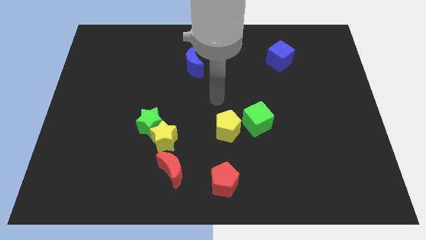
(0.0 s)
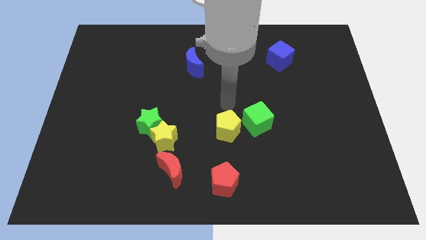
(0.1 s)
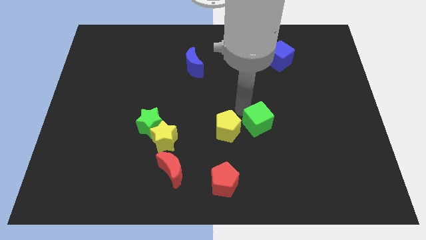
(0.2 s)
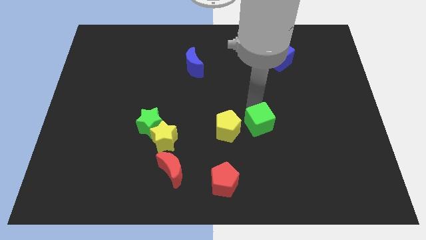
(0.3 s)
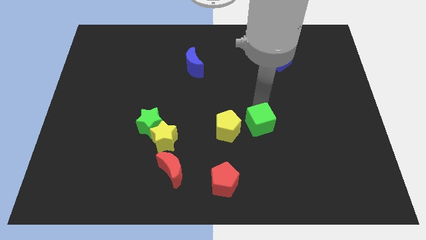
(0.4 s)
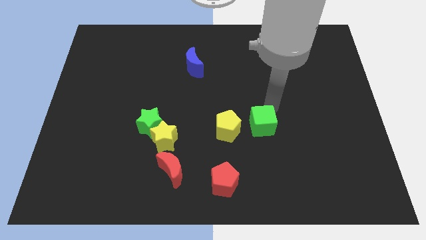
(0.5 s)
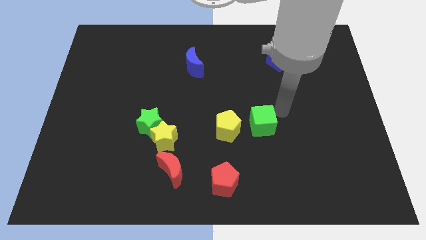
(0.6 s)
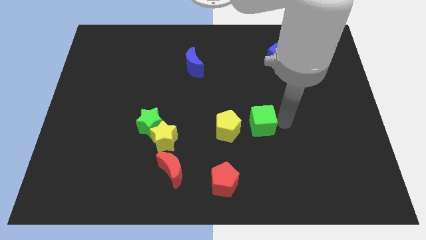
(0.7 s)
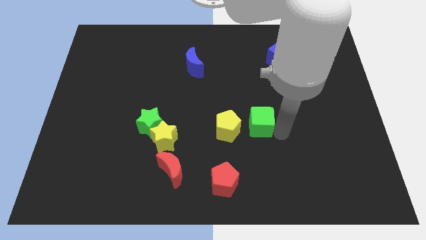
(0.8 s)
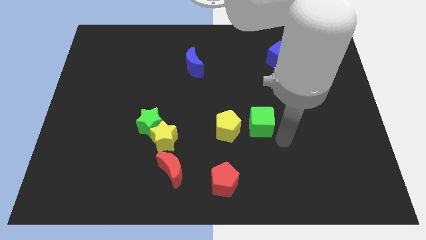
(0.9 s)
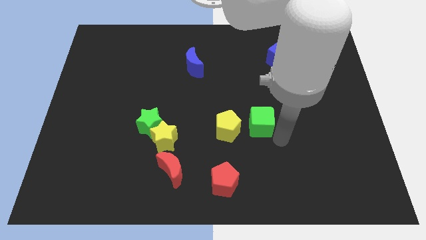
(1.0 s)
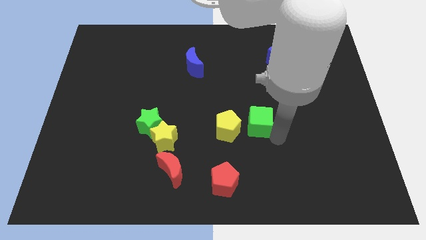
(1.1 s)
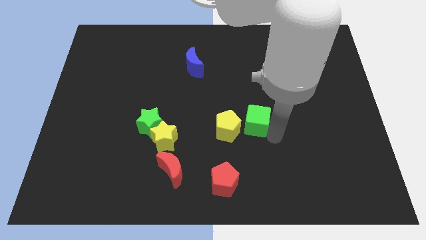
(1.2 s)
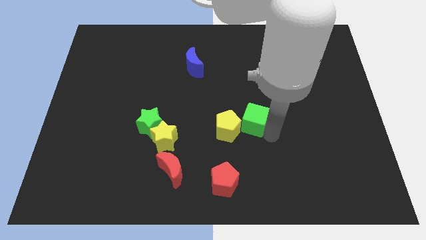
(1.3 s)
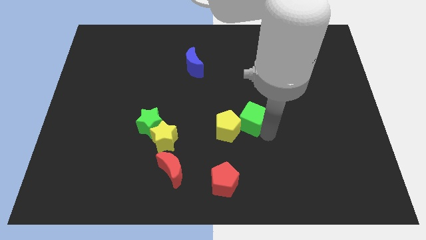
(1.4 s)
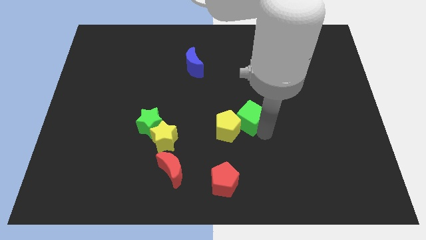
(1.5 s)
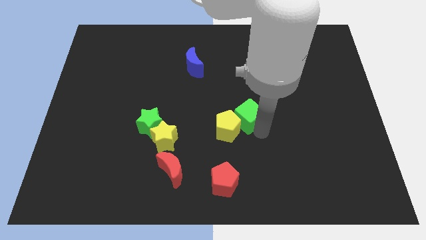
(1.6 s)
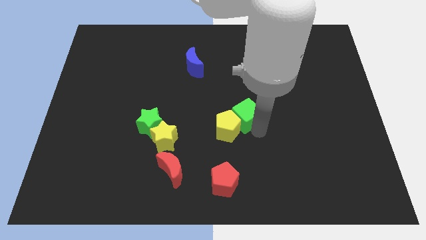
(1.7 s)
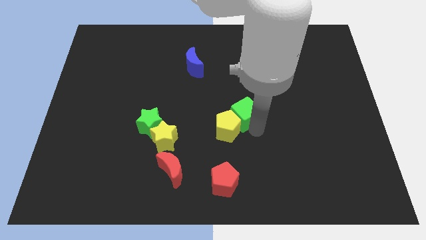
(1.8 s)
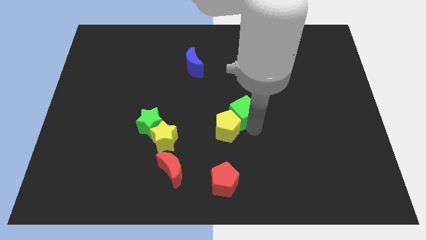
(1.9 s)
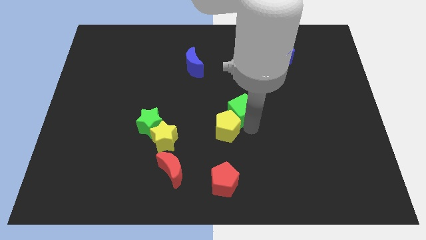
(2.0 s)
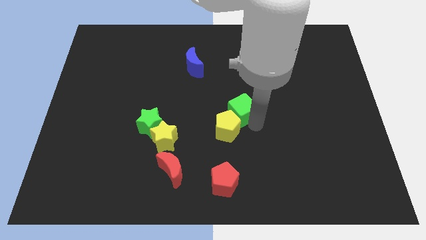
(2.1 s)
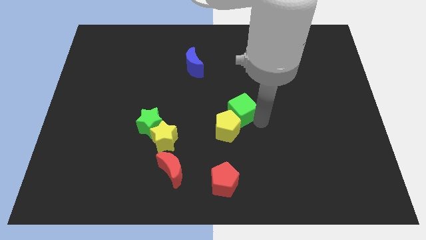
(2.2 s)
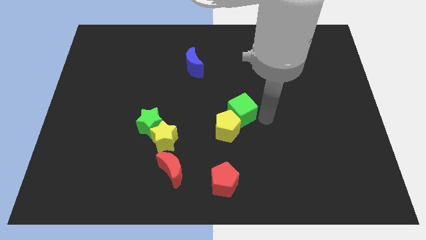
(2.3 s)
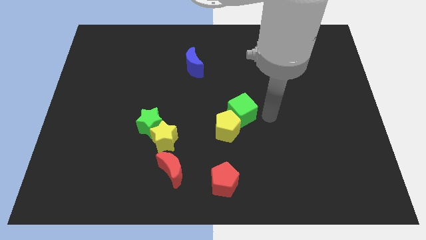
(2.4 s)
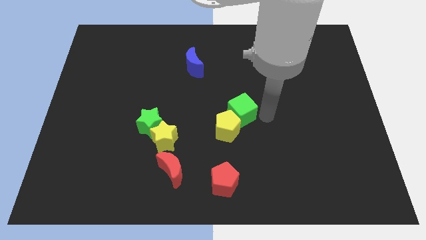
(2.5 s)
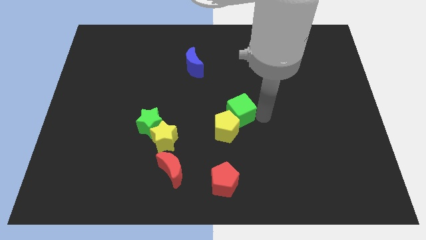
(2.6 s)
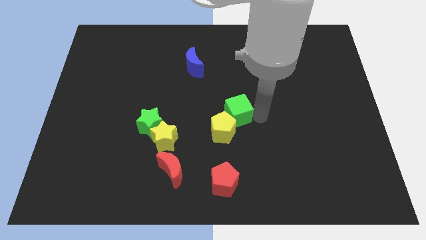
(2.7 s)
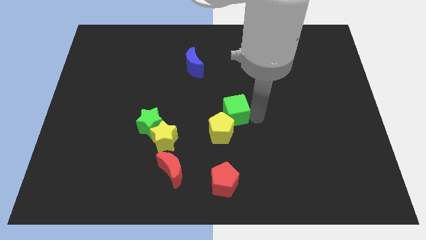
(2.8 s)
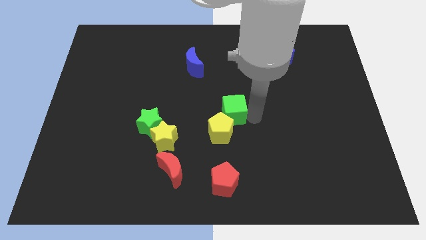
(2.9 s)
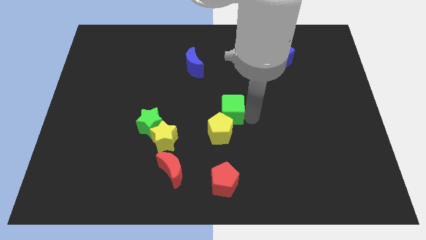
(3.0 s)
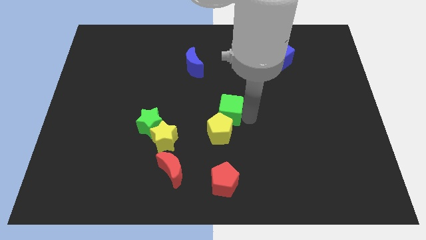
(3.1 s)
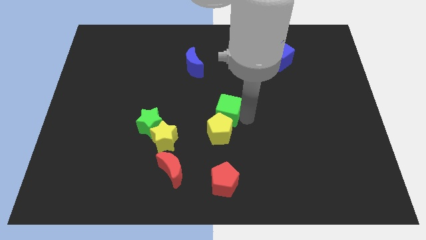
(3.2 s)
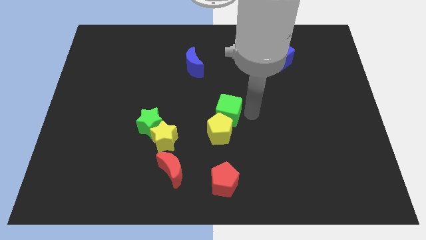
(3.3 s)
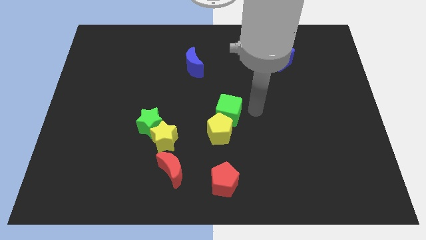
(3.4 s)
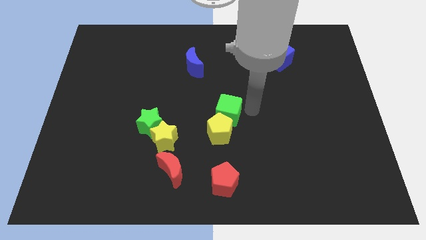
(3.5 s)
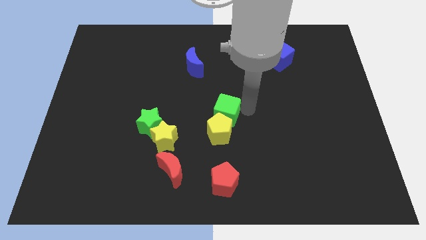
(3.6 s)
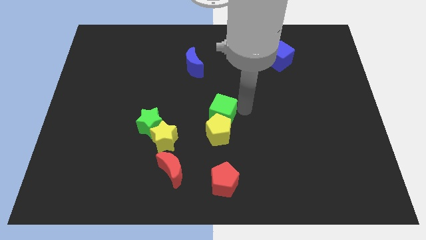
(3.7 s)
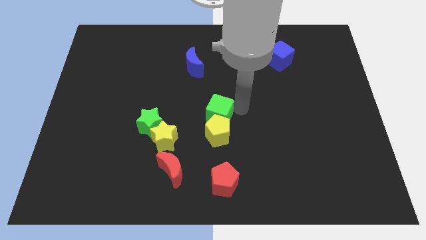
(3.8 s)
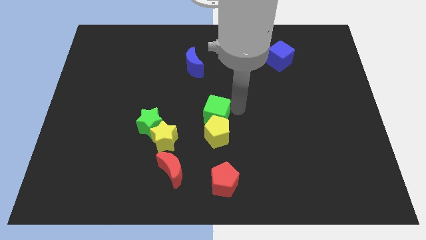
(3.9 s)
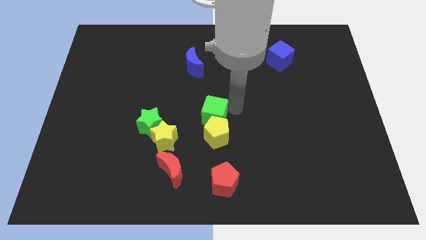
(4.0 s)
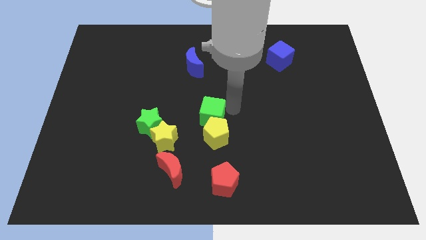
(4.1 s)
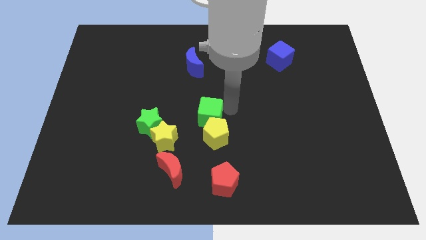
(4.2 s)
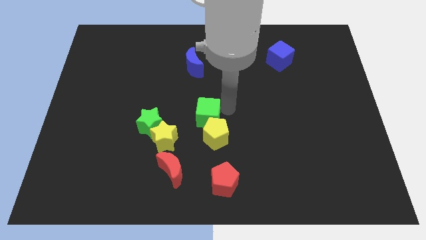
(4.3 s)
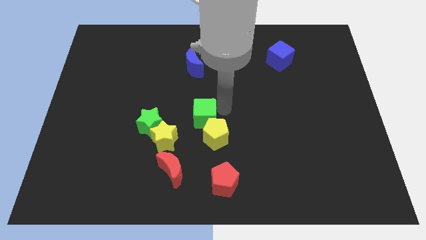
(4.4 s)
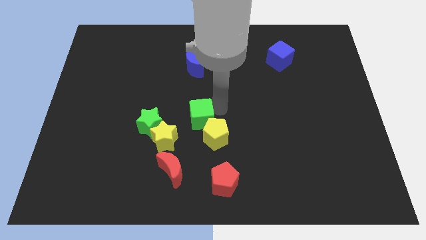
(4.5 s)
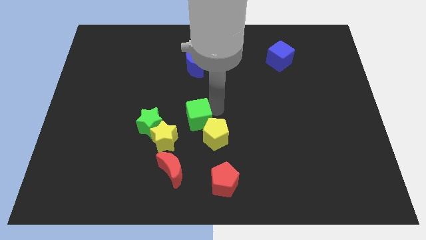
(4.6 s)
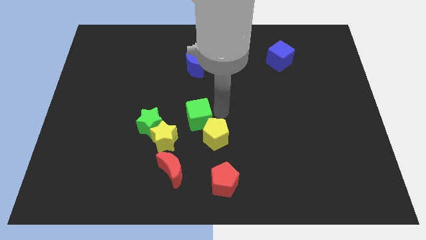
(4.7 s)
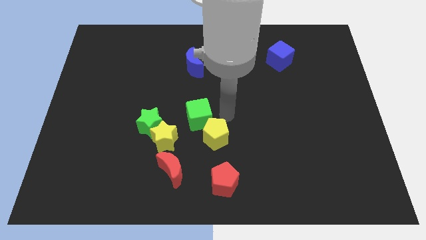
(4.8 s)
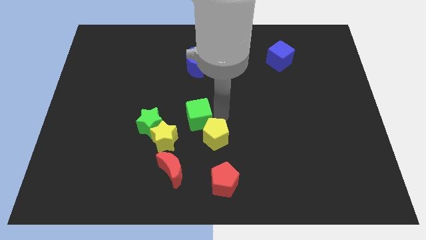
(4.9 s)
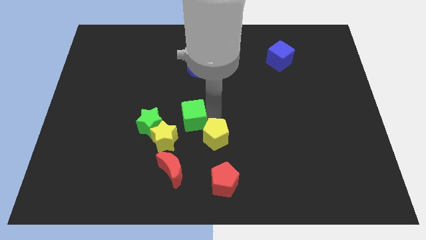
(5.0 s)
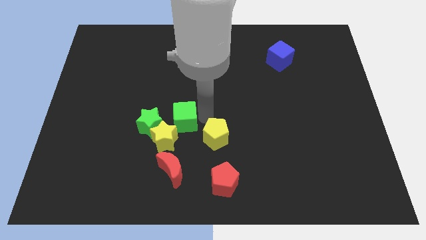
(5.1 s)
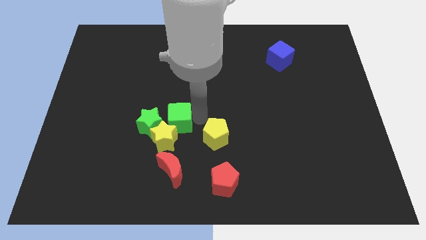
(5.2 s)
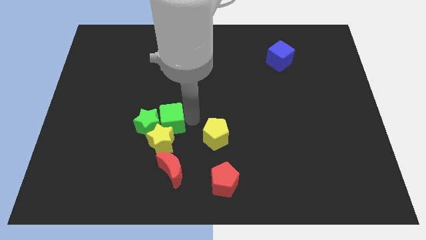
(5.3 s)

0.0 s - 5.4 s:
slide the green cube towards the green star

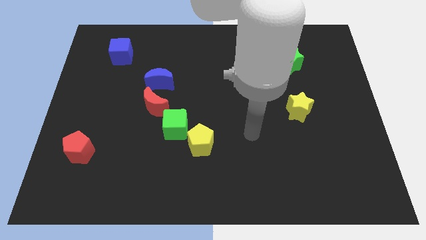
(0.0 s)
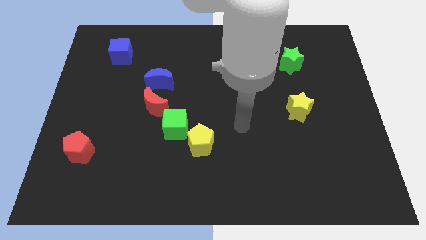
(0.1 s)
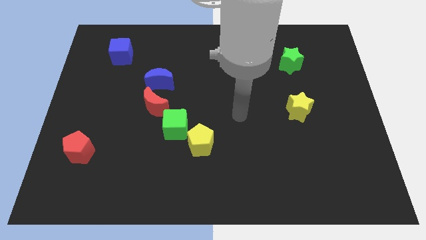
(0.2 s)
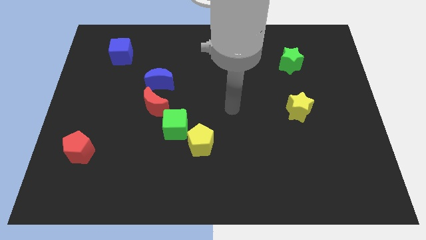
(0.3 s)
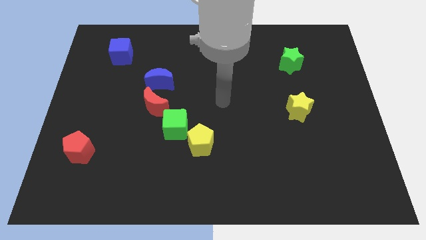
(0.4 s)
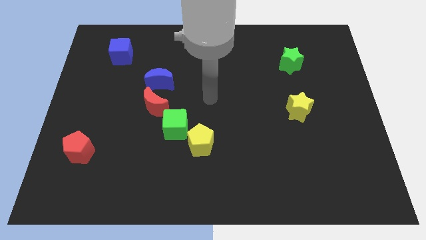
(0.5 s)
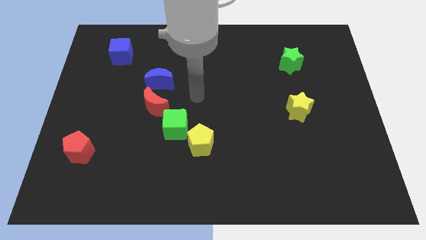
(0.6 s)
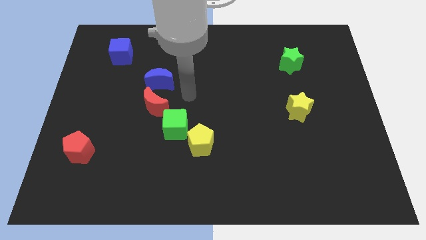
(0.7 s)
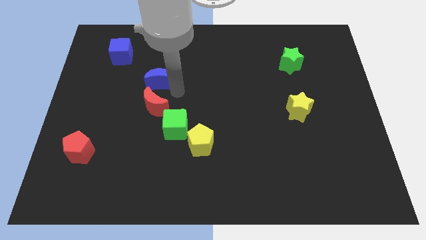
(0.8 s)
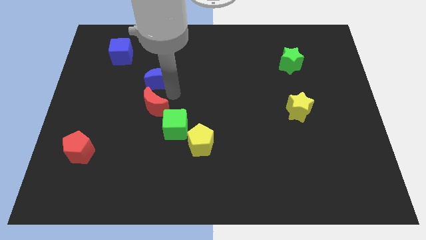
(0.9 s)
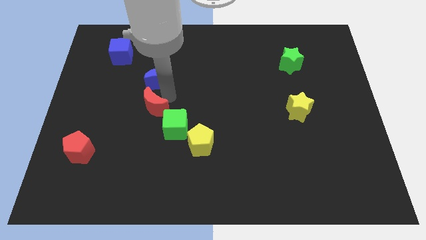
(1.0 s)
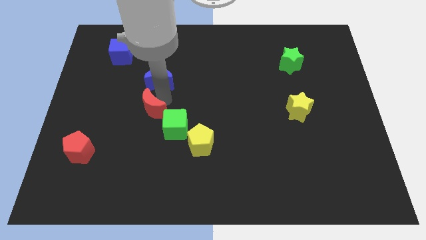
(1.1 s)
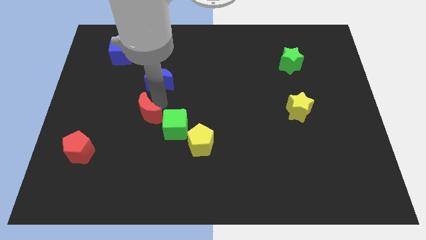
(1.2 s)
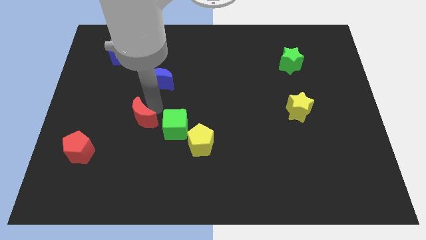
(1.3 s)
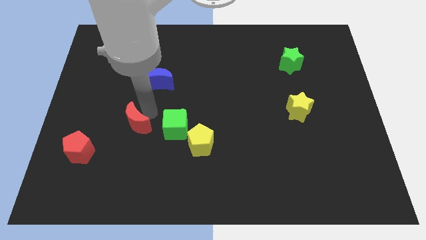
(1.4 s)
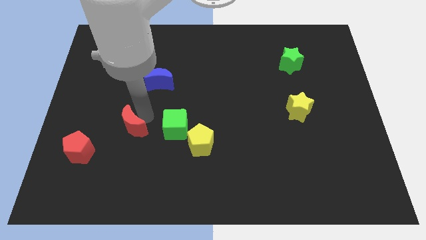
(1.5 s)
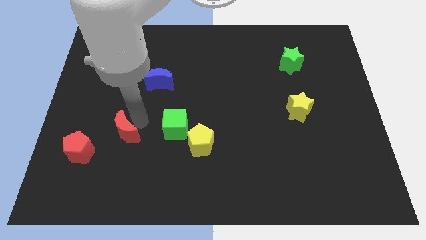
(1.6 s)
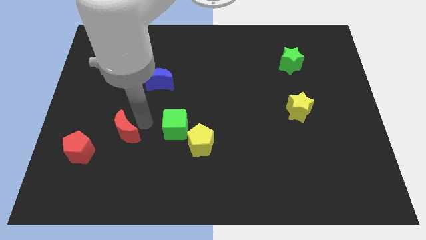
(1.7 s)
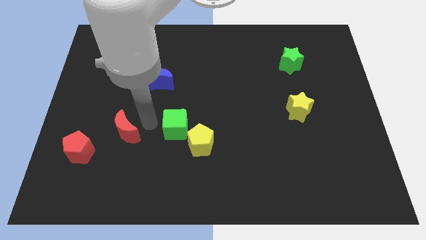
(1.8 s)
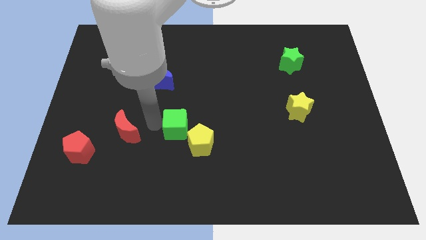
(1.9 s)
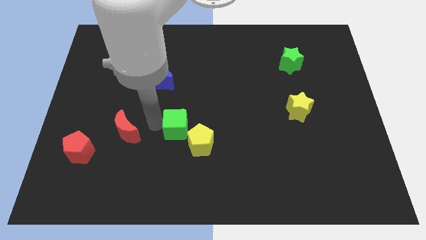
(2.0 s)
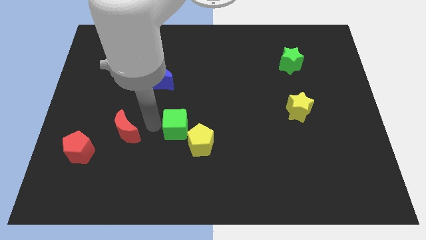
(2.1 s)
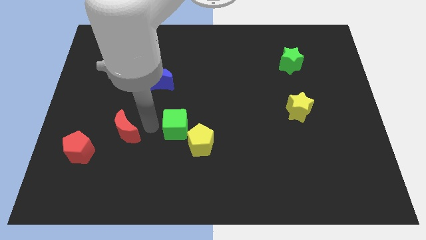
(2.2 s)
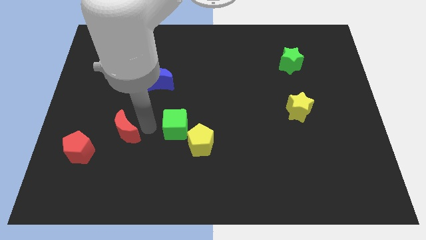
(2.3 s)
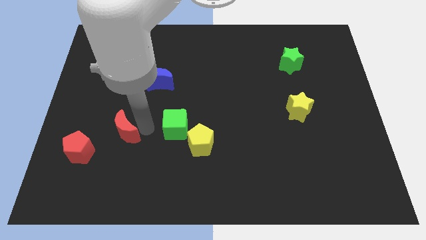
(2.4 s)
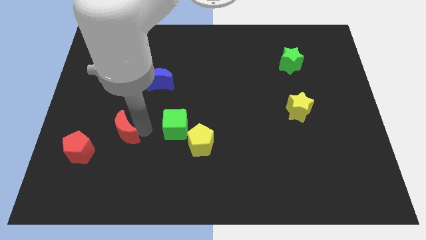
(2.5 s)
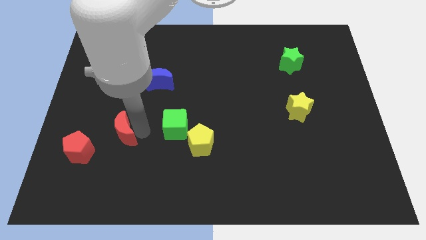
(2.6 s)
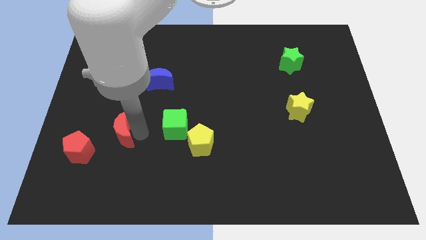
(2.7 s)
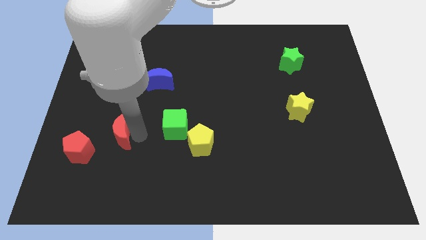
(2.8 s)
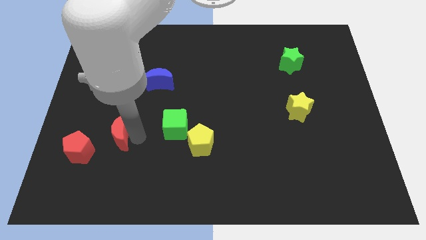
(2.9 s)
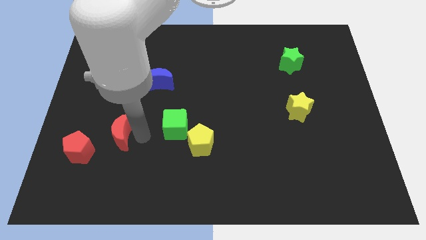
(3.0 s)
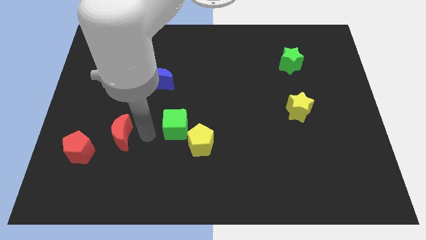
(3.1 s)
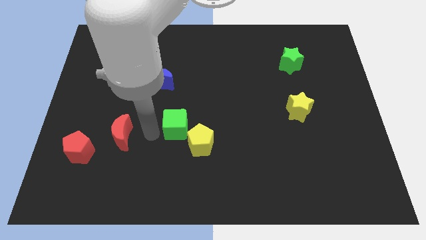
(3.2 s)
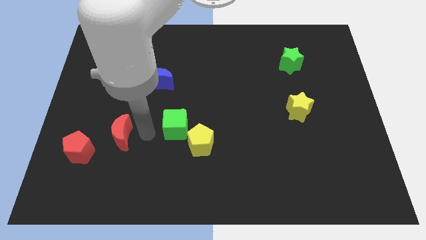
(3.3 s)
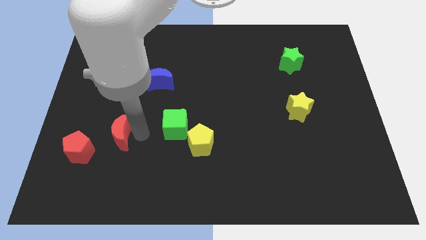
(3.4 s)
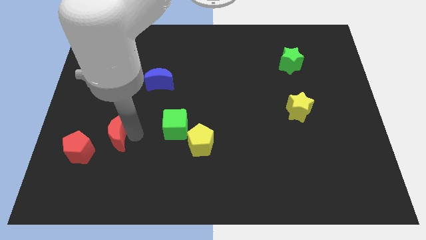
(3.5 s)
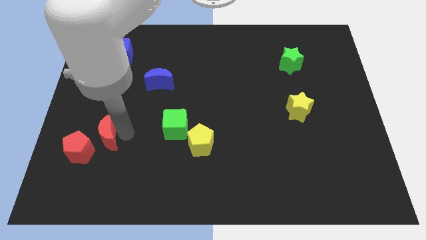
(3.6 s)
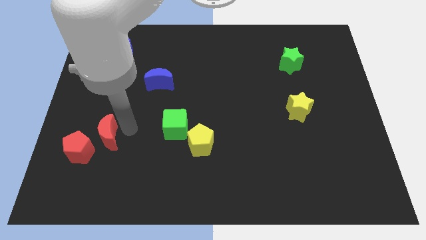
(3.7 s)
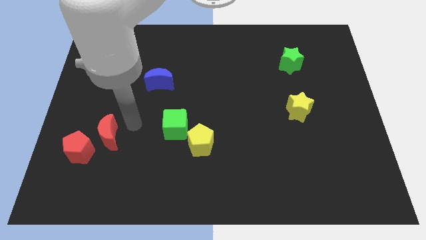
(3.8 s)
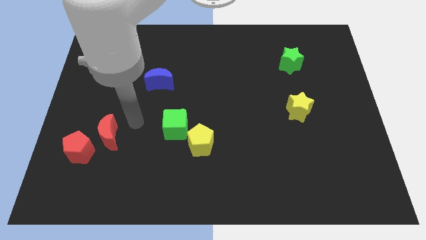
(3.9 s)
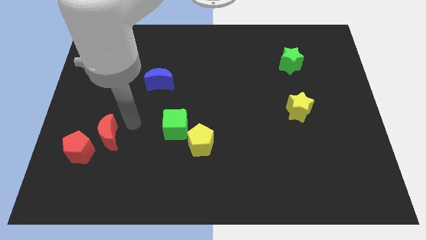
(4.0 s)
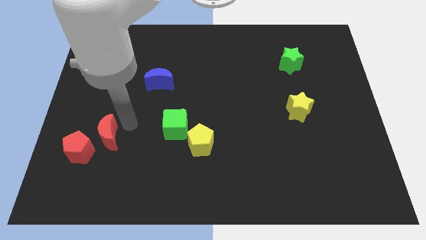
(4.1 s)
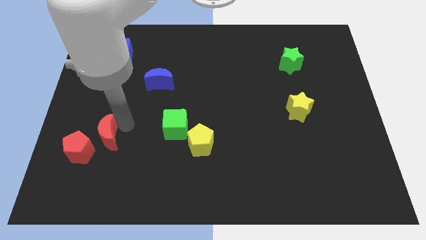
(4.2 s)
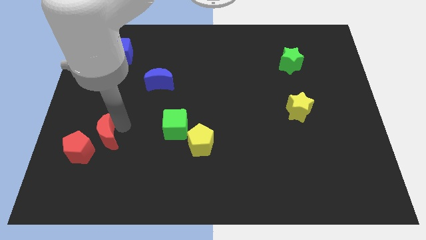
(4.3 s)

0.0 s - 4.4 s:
slide the red moon towards the red pentagon
